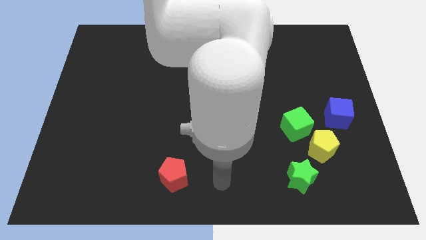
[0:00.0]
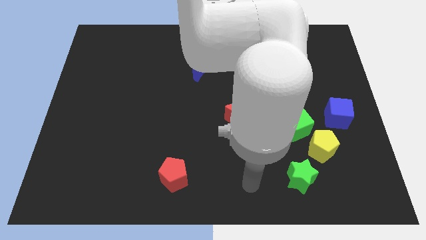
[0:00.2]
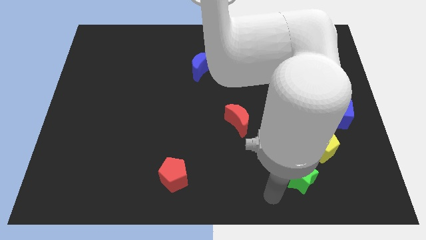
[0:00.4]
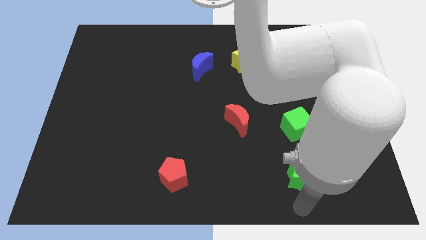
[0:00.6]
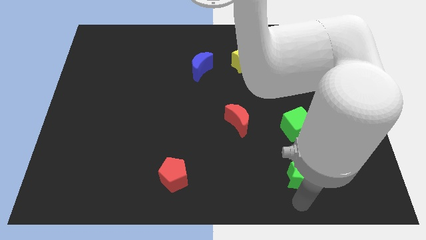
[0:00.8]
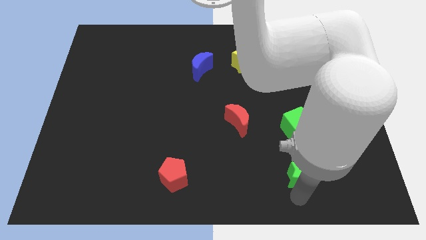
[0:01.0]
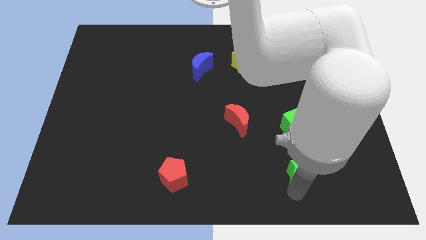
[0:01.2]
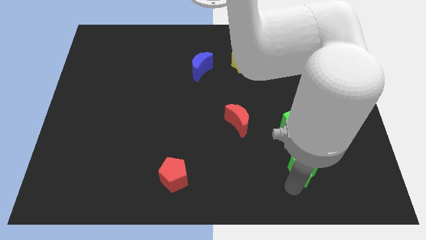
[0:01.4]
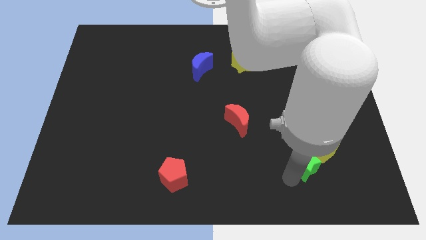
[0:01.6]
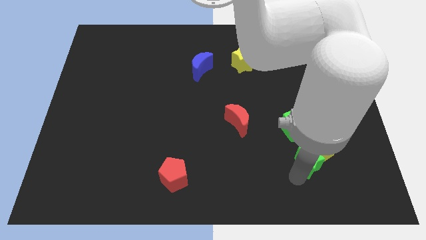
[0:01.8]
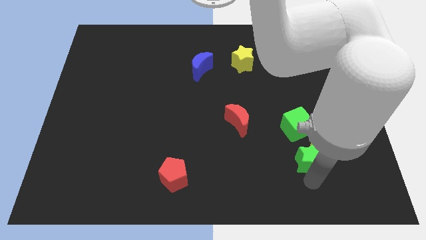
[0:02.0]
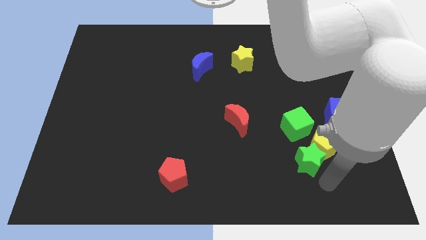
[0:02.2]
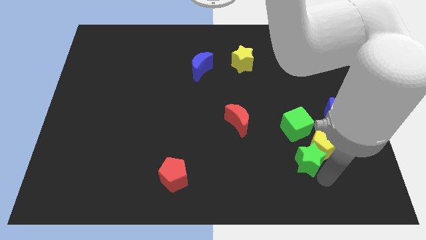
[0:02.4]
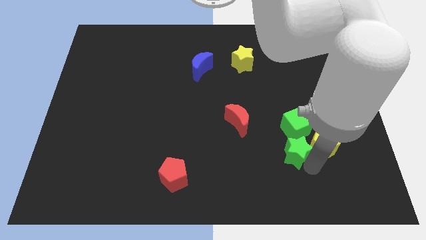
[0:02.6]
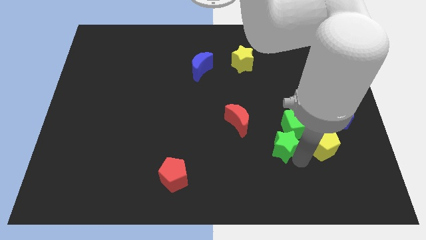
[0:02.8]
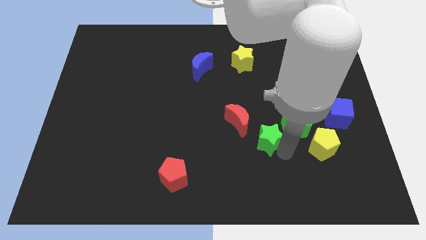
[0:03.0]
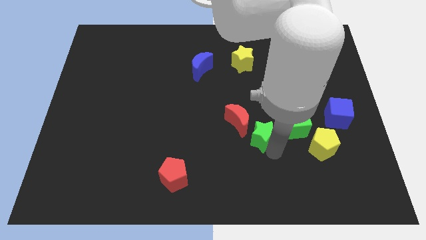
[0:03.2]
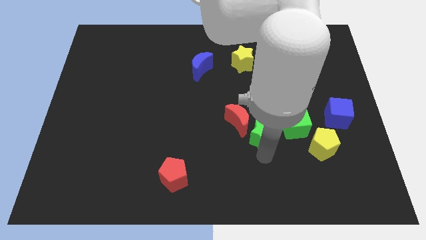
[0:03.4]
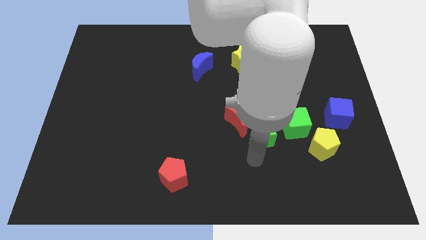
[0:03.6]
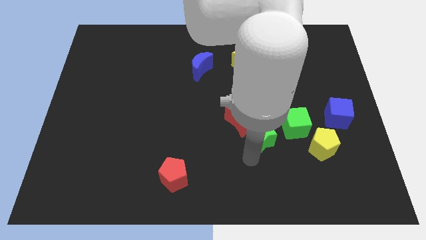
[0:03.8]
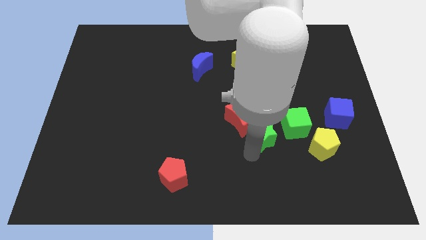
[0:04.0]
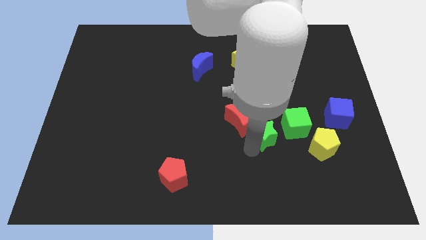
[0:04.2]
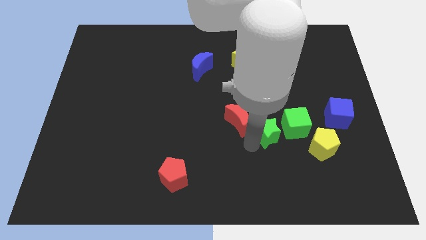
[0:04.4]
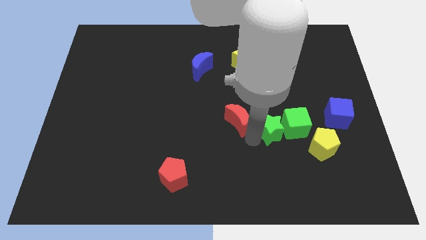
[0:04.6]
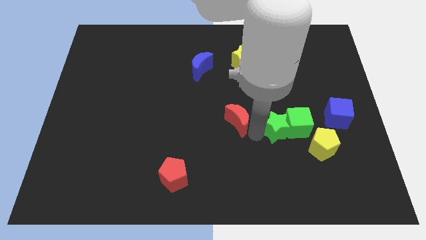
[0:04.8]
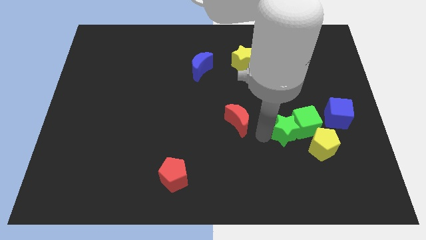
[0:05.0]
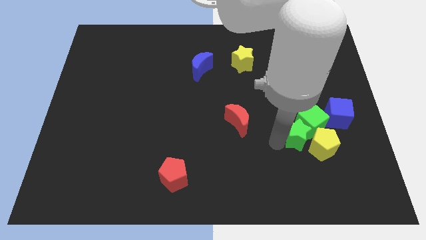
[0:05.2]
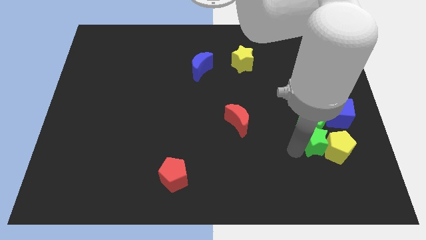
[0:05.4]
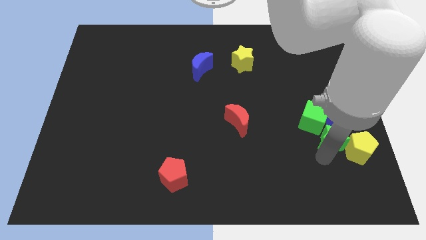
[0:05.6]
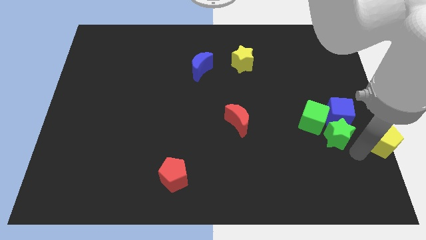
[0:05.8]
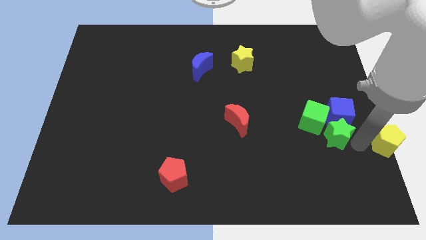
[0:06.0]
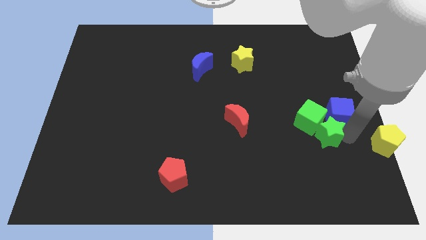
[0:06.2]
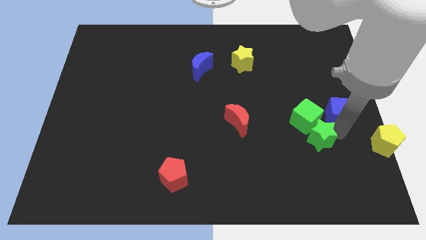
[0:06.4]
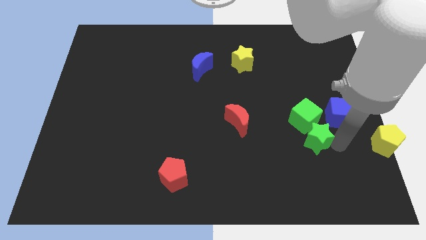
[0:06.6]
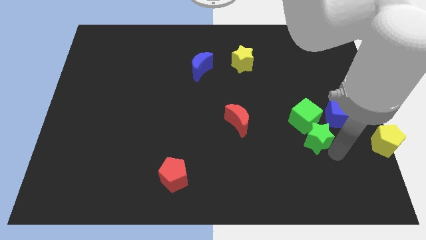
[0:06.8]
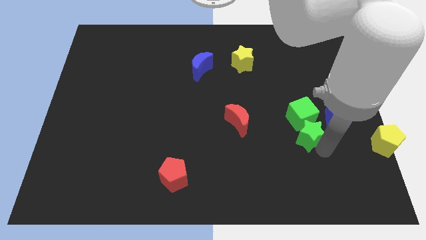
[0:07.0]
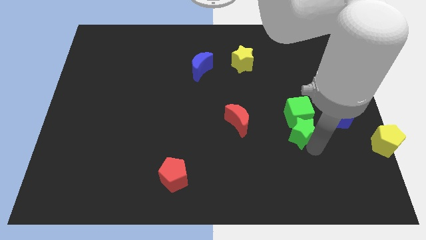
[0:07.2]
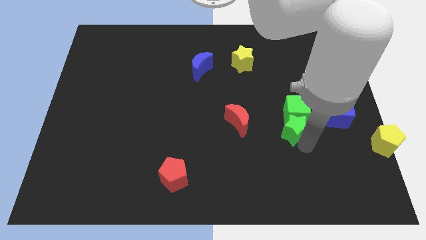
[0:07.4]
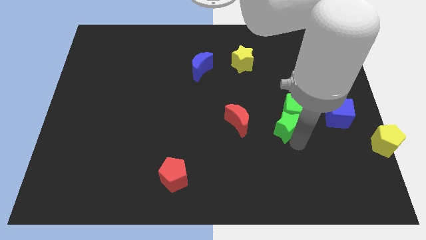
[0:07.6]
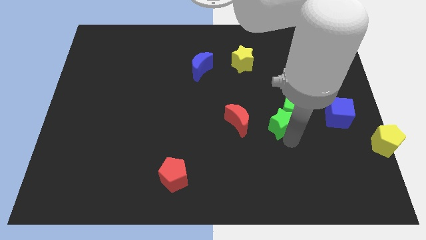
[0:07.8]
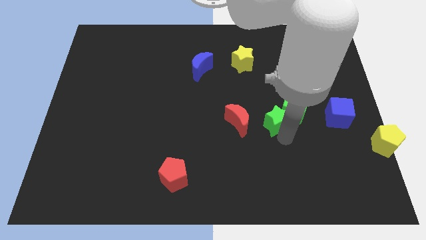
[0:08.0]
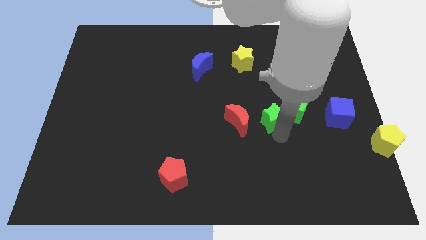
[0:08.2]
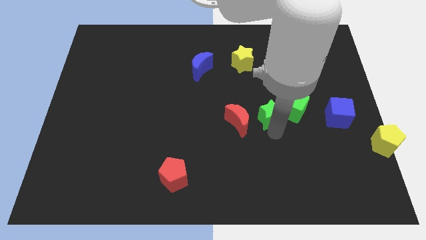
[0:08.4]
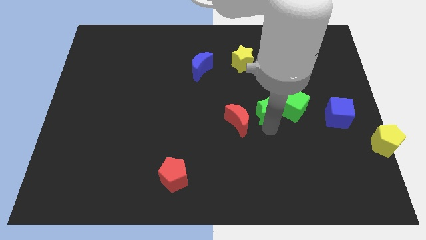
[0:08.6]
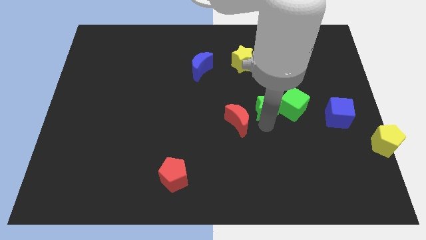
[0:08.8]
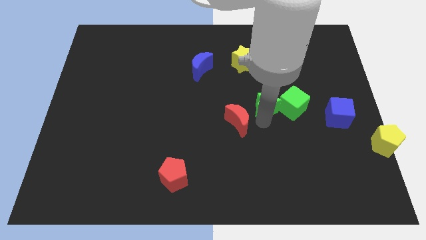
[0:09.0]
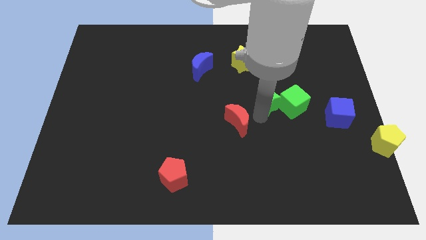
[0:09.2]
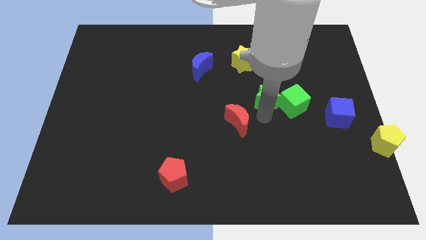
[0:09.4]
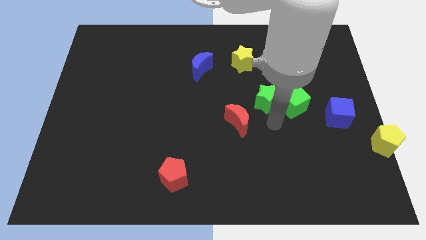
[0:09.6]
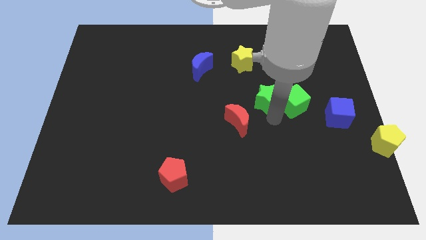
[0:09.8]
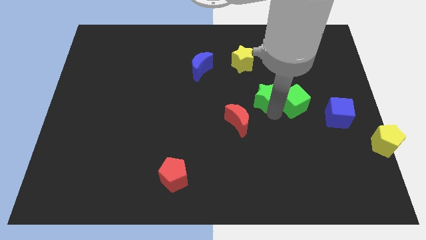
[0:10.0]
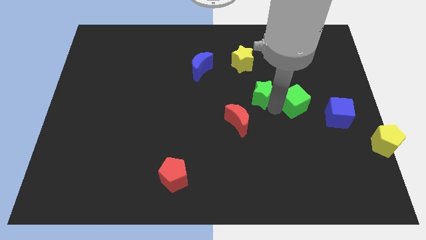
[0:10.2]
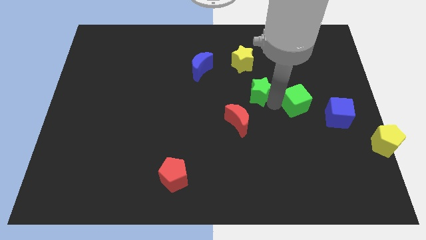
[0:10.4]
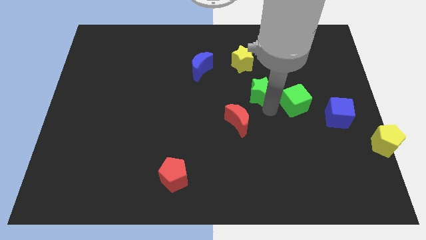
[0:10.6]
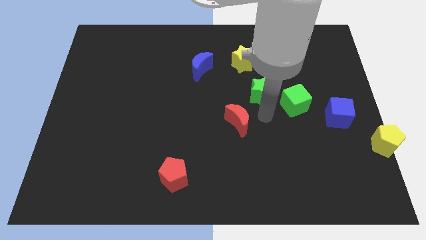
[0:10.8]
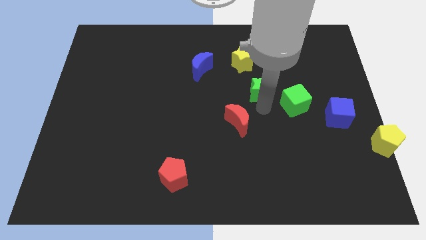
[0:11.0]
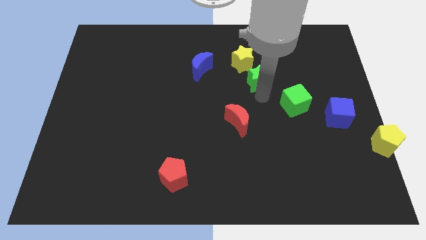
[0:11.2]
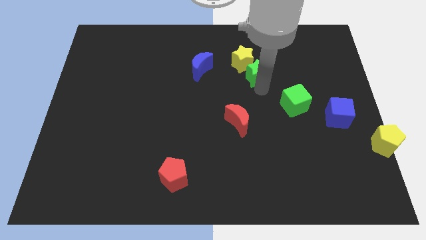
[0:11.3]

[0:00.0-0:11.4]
put the green star close to the yellow star

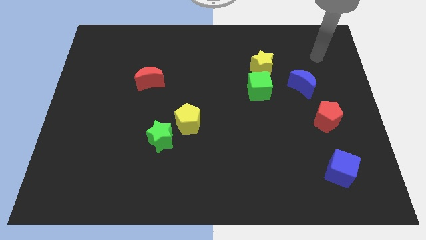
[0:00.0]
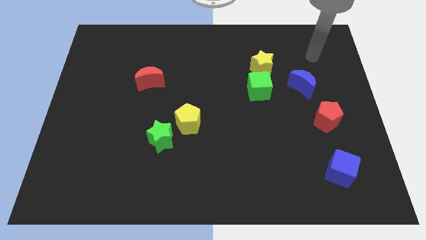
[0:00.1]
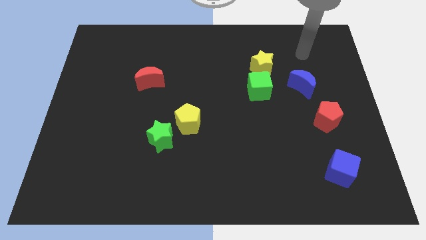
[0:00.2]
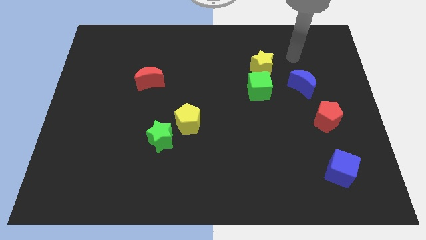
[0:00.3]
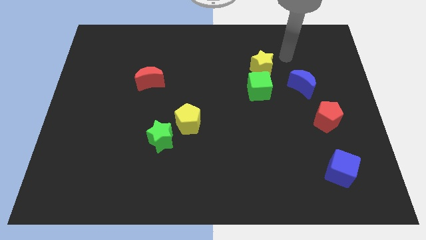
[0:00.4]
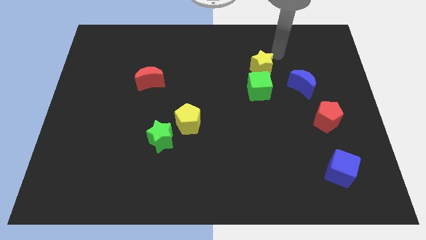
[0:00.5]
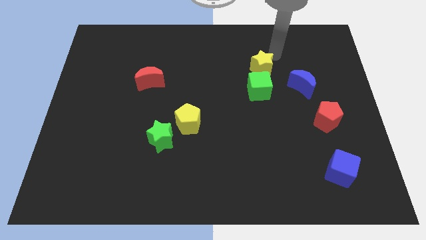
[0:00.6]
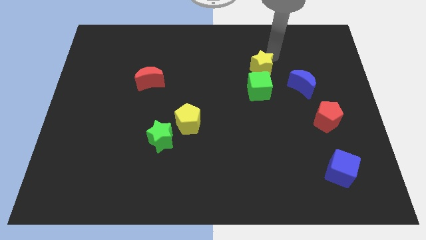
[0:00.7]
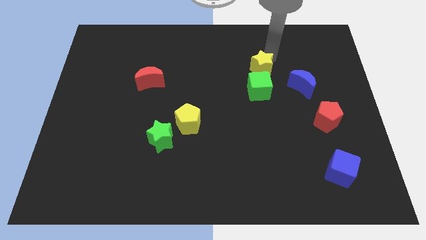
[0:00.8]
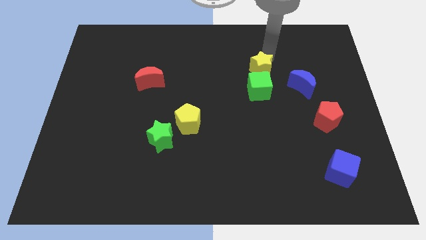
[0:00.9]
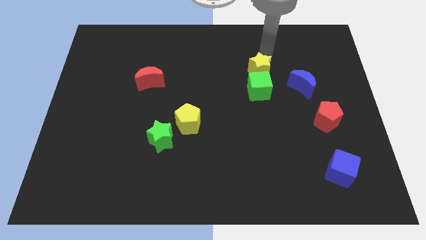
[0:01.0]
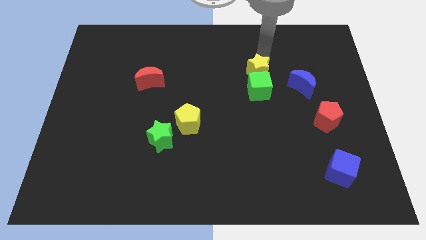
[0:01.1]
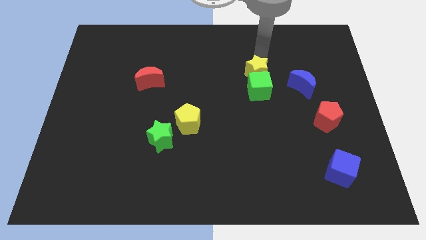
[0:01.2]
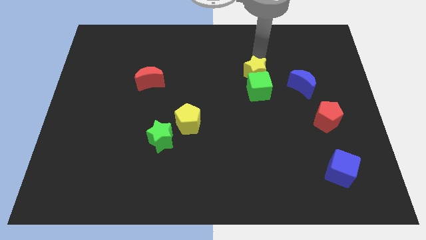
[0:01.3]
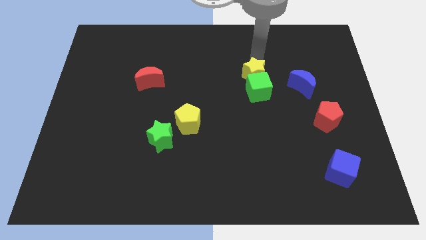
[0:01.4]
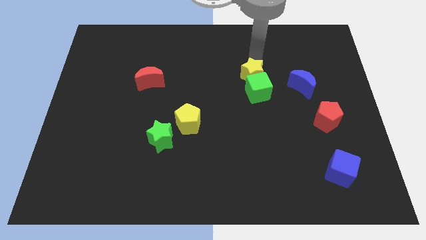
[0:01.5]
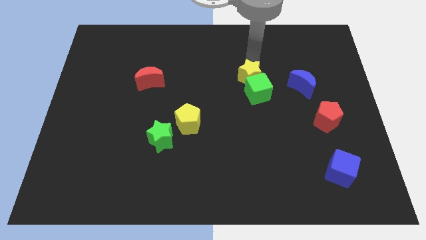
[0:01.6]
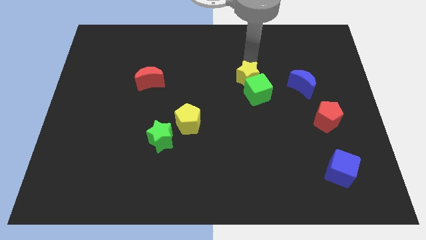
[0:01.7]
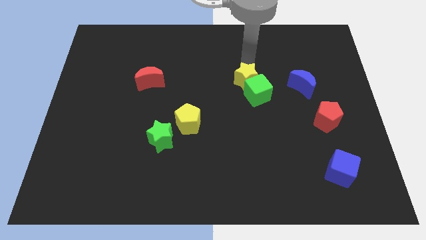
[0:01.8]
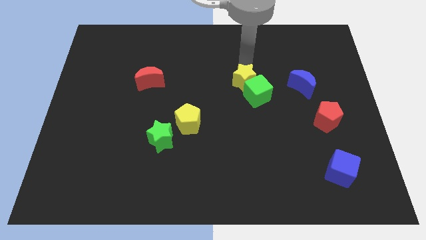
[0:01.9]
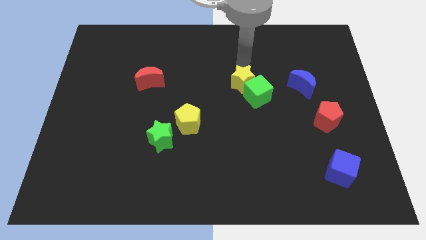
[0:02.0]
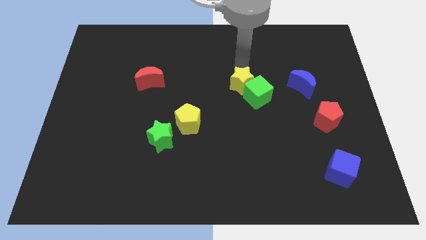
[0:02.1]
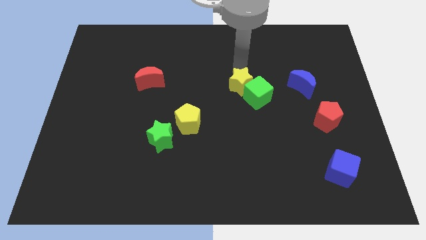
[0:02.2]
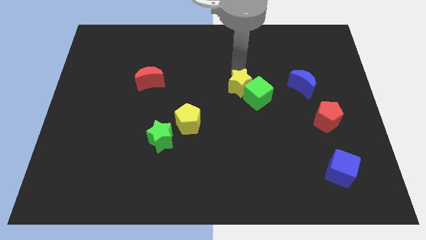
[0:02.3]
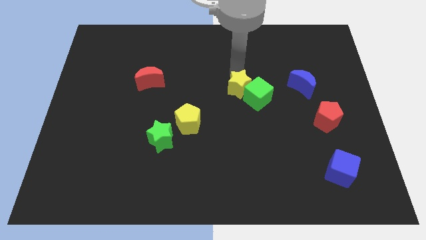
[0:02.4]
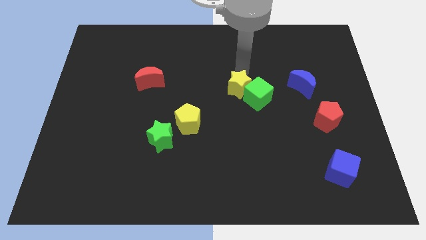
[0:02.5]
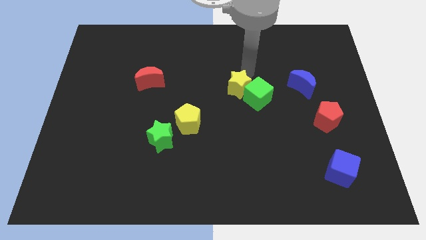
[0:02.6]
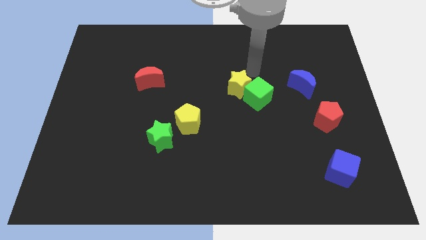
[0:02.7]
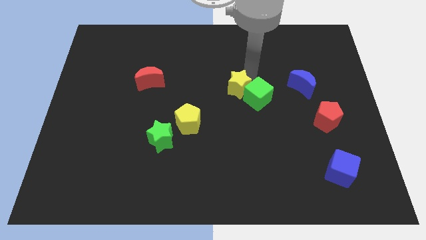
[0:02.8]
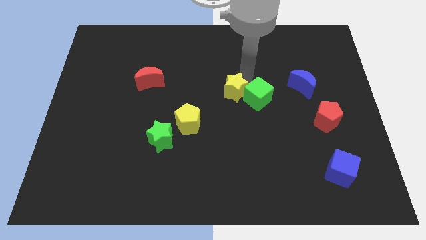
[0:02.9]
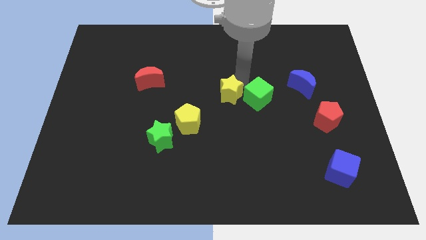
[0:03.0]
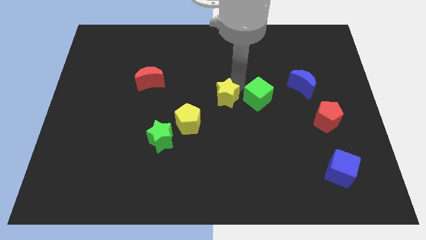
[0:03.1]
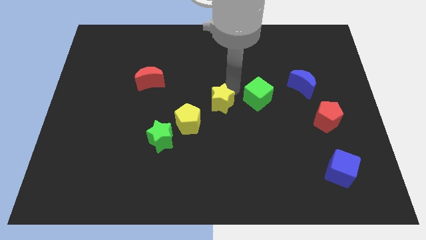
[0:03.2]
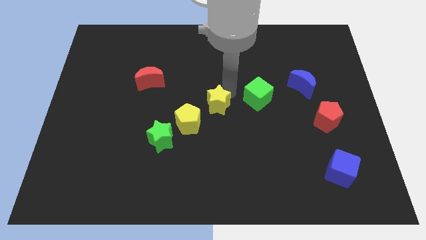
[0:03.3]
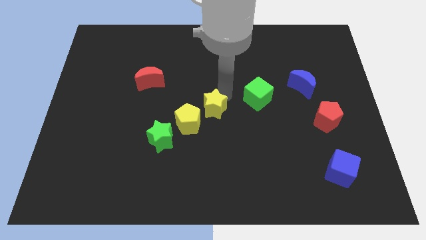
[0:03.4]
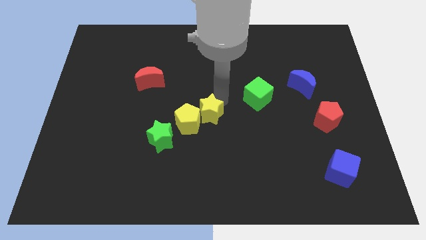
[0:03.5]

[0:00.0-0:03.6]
put the yellow star next to the yellow pentagon
